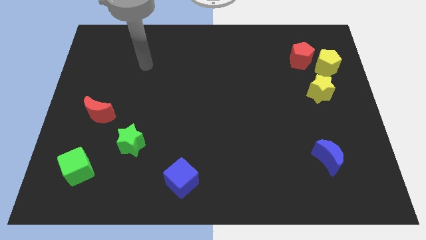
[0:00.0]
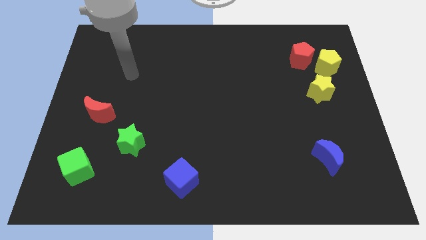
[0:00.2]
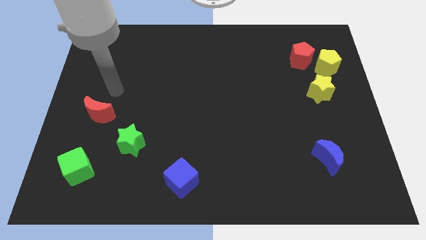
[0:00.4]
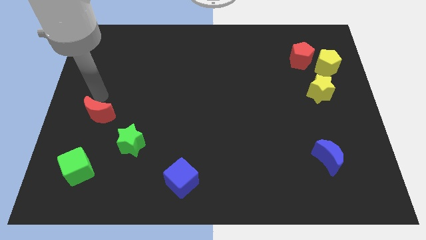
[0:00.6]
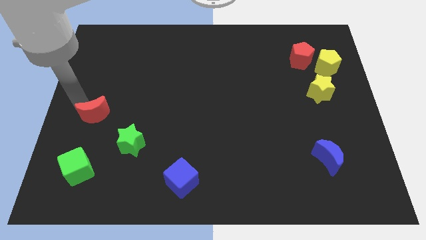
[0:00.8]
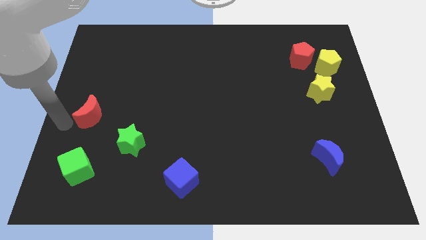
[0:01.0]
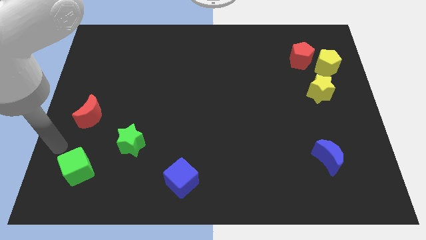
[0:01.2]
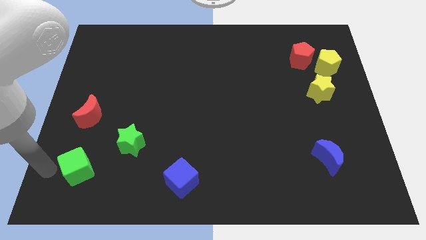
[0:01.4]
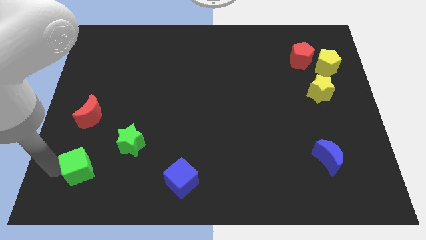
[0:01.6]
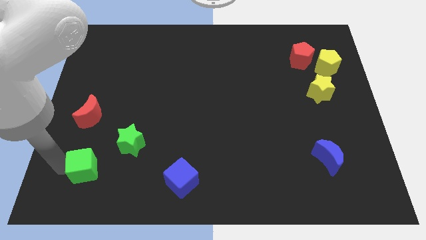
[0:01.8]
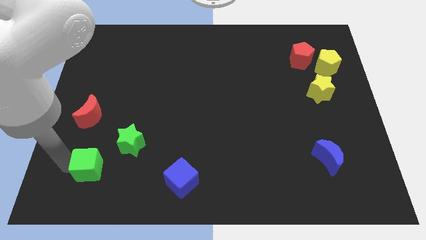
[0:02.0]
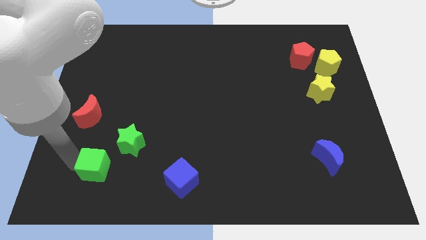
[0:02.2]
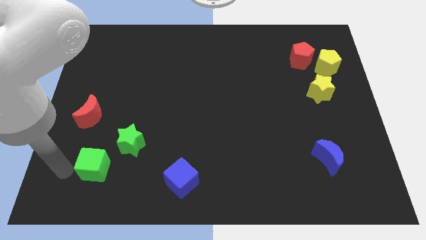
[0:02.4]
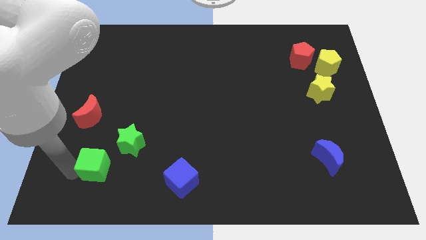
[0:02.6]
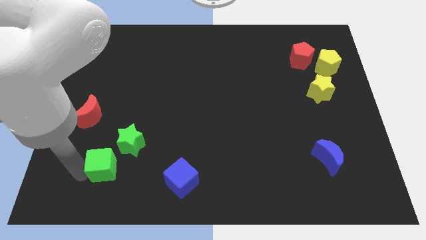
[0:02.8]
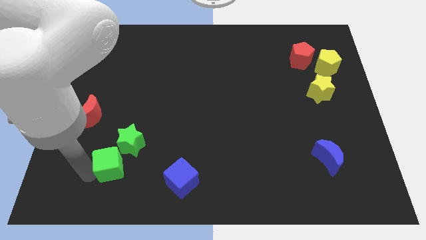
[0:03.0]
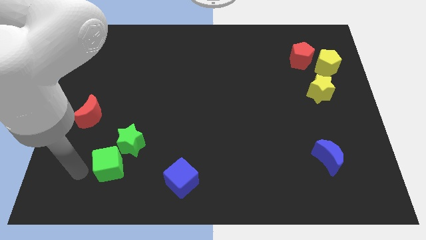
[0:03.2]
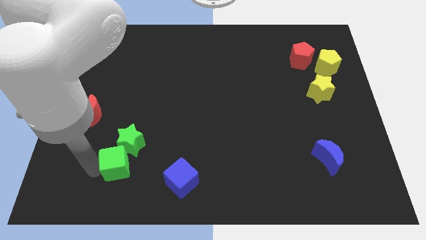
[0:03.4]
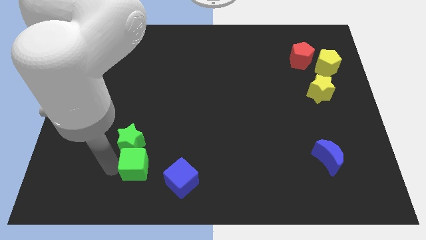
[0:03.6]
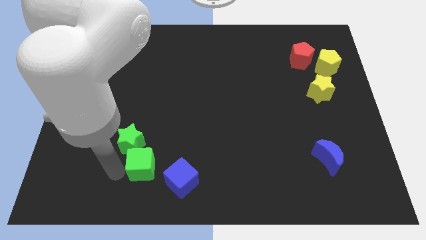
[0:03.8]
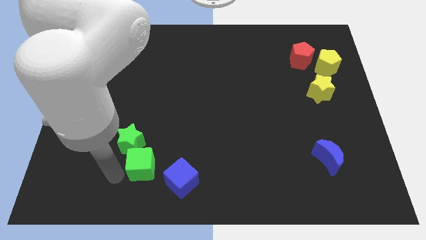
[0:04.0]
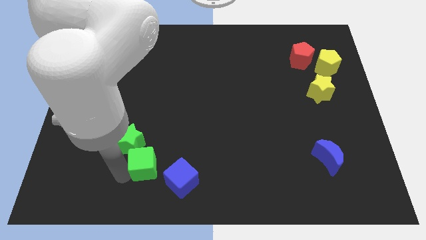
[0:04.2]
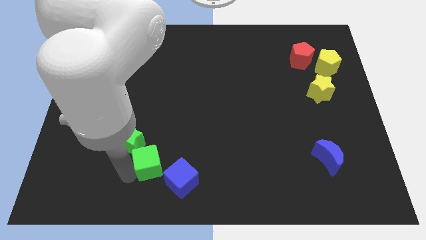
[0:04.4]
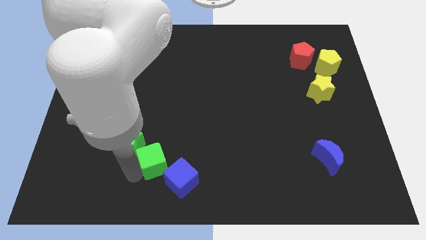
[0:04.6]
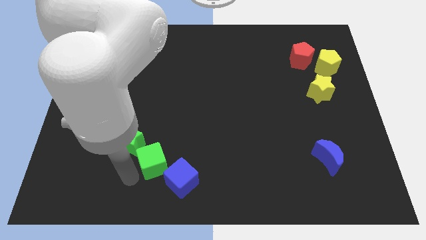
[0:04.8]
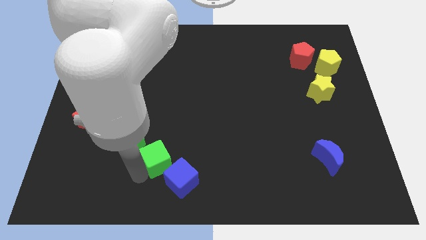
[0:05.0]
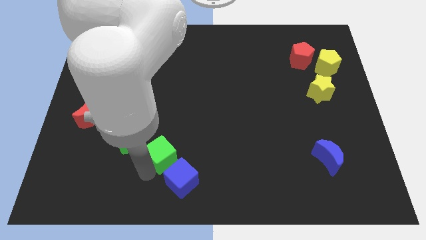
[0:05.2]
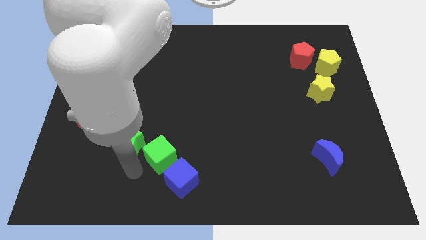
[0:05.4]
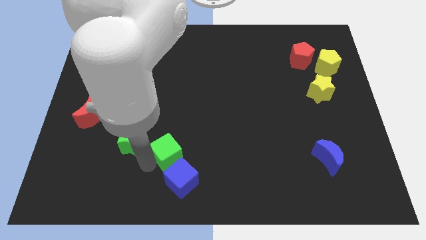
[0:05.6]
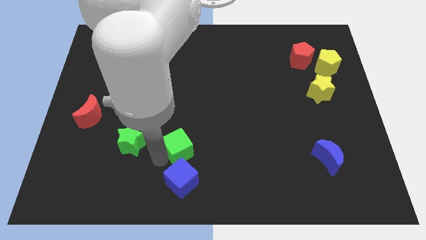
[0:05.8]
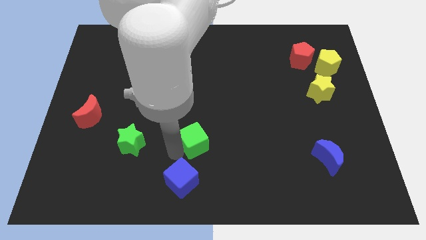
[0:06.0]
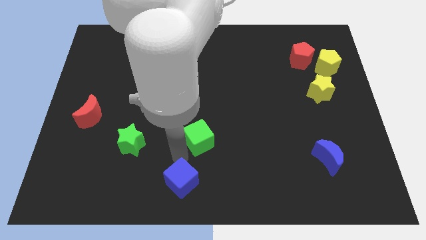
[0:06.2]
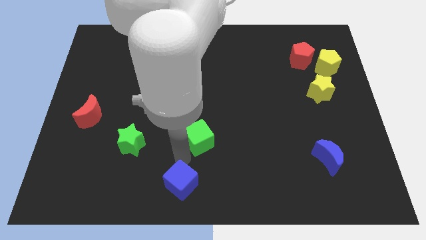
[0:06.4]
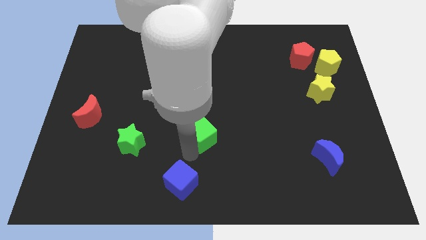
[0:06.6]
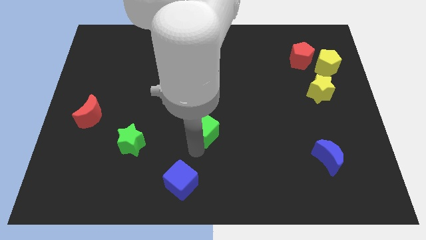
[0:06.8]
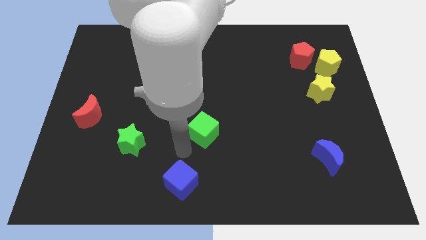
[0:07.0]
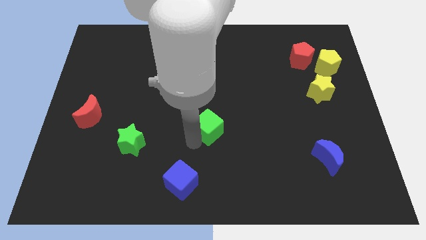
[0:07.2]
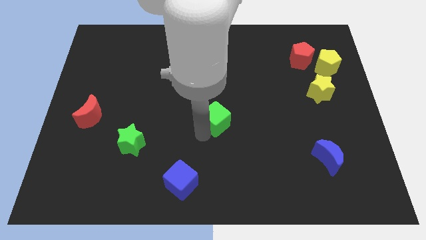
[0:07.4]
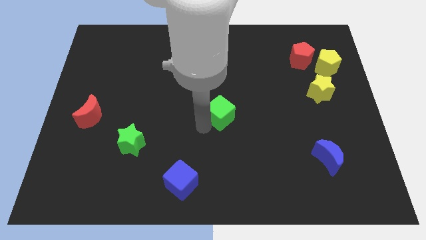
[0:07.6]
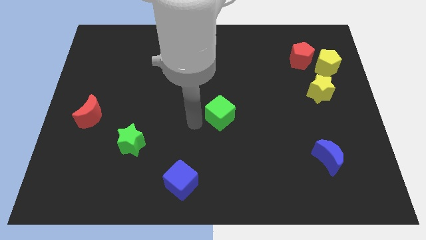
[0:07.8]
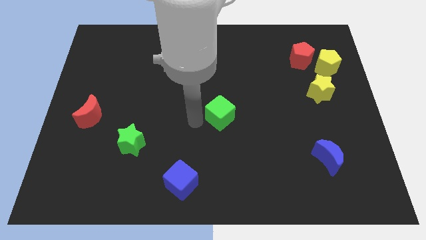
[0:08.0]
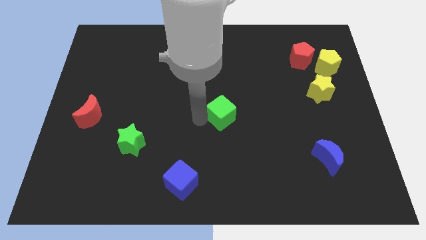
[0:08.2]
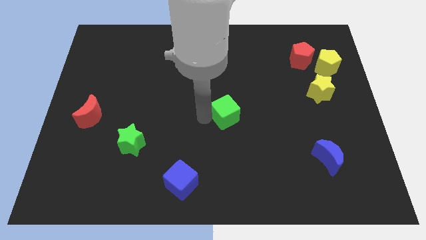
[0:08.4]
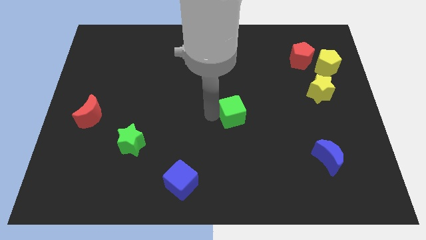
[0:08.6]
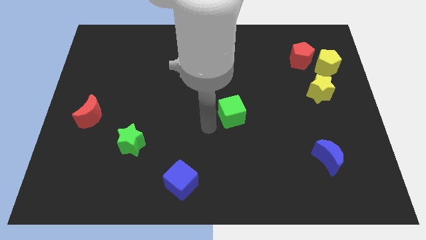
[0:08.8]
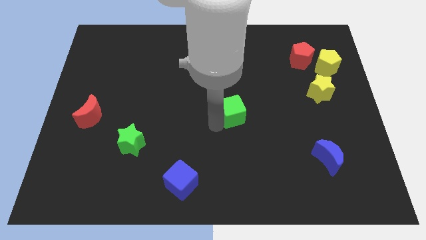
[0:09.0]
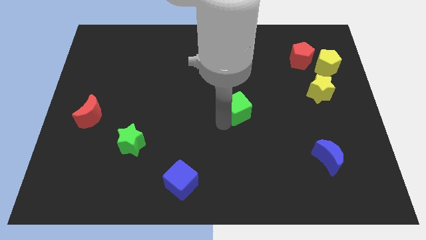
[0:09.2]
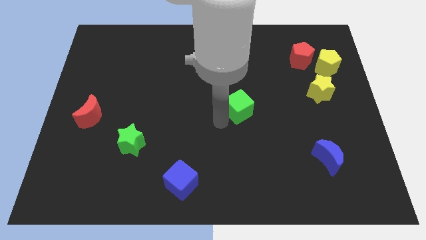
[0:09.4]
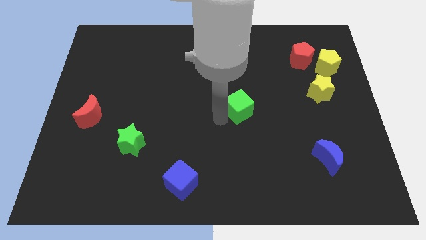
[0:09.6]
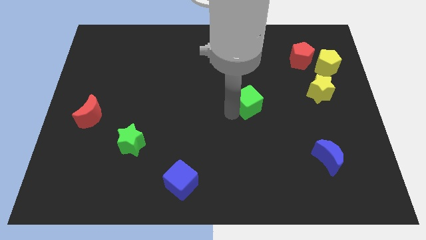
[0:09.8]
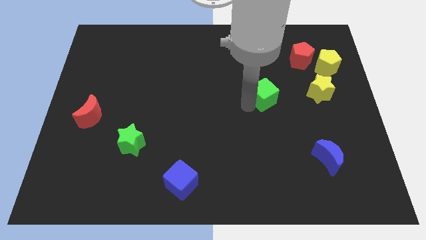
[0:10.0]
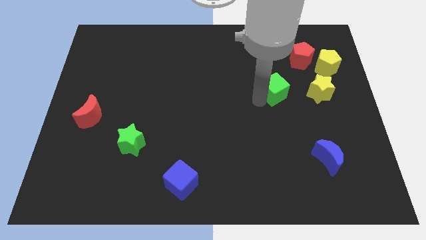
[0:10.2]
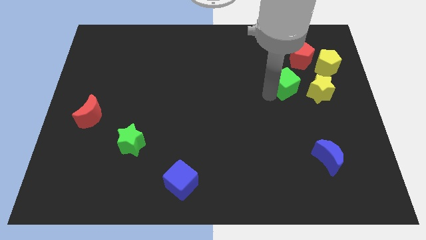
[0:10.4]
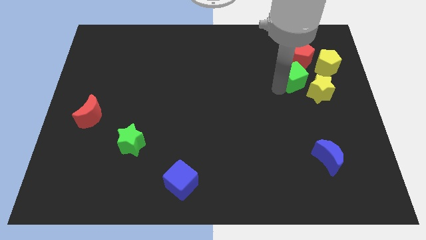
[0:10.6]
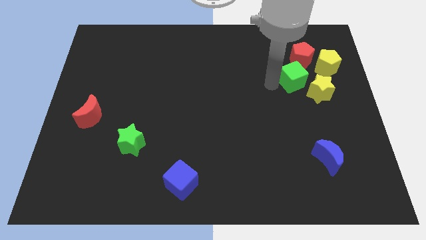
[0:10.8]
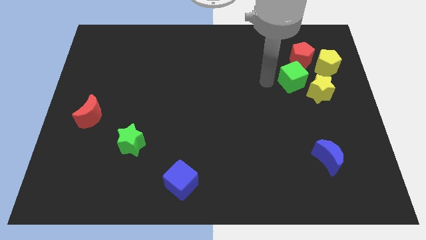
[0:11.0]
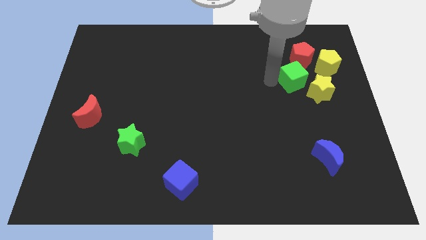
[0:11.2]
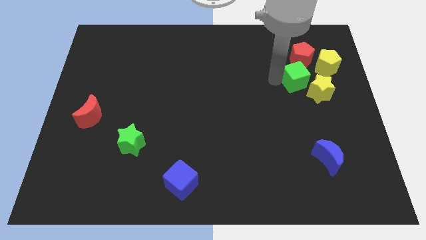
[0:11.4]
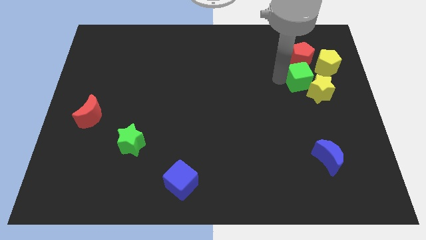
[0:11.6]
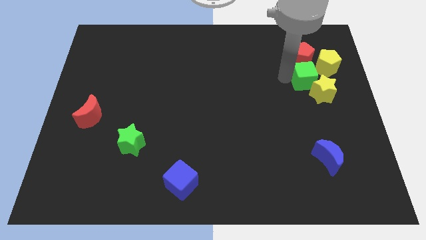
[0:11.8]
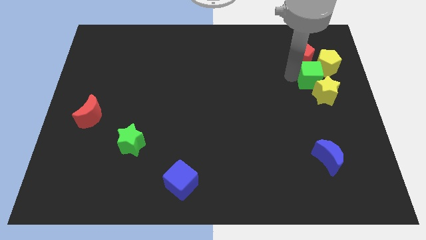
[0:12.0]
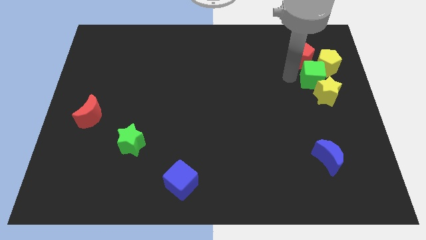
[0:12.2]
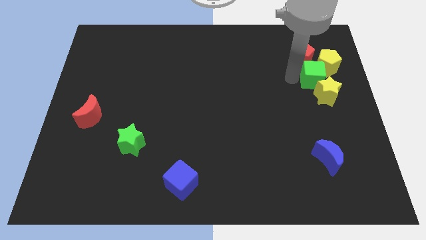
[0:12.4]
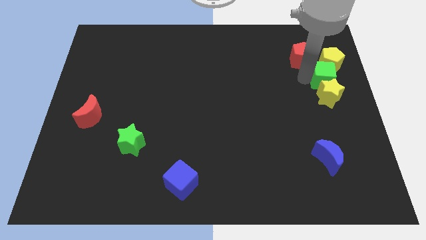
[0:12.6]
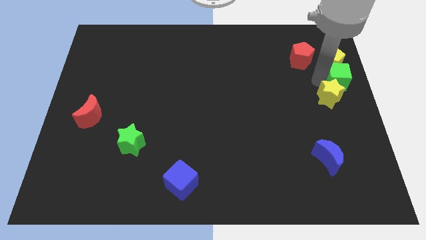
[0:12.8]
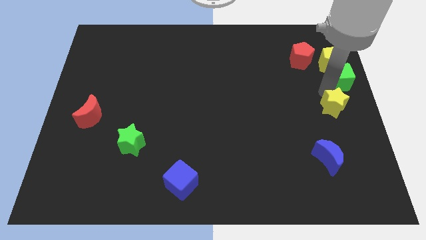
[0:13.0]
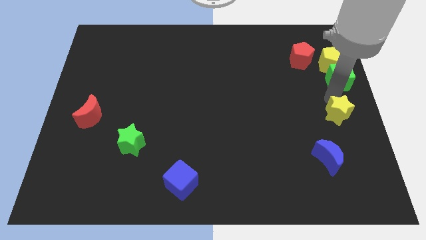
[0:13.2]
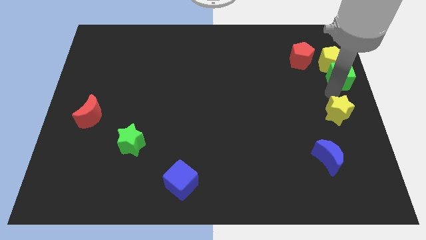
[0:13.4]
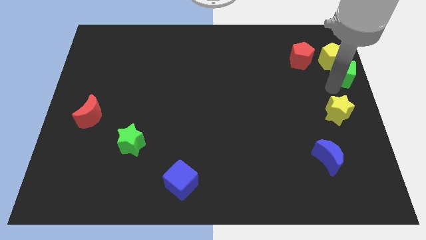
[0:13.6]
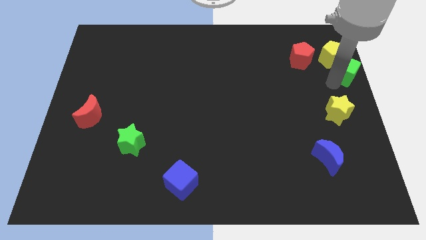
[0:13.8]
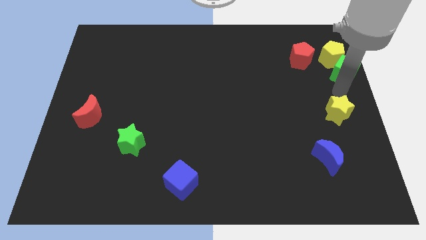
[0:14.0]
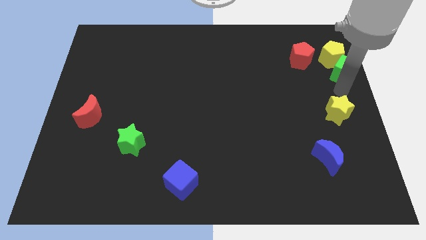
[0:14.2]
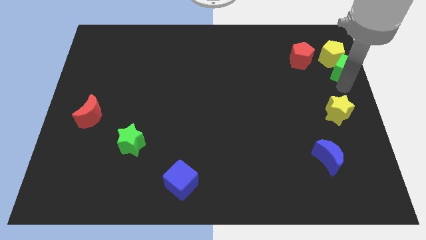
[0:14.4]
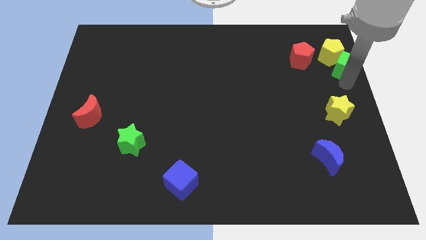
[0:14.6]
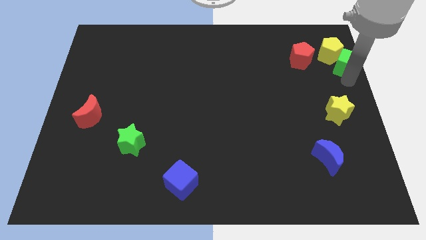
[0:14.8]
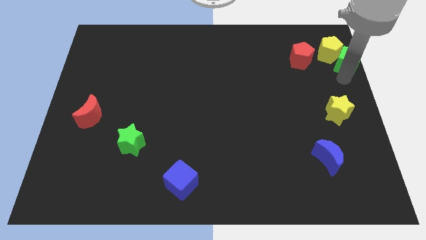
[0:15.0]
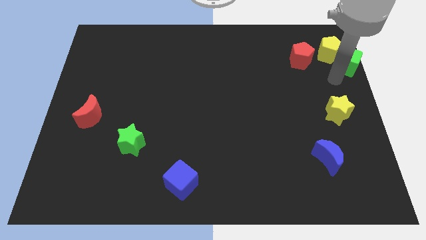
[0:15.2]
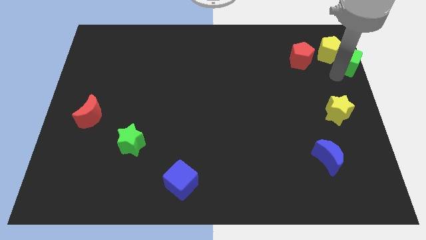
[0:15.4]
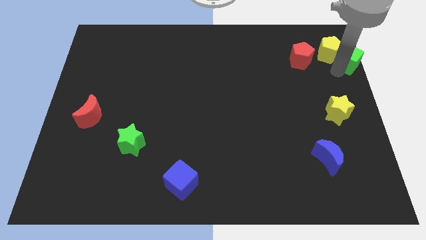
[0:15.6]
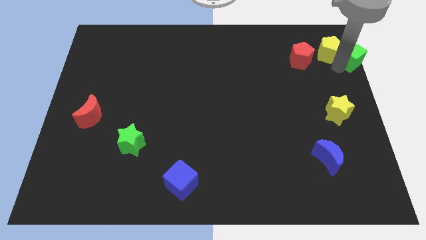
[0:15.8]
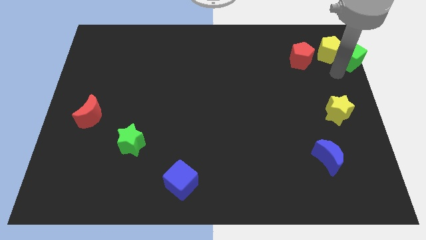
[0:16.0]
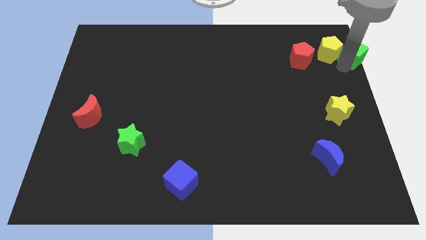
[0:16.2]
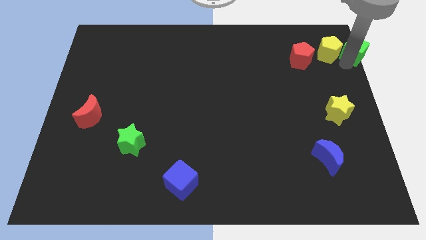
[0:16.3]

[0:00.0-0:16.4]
push the green cube to the upper right corner
